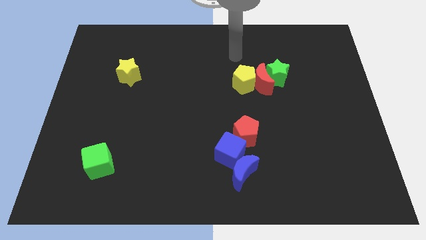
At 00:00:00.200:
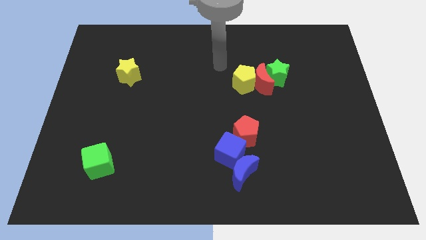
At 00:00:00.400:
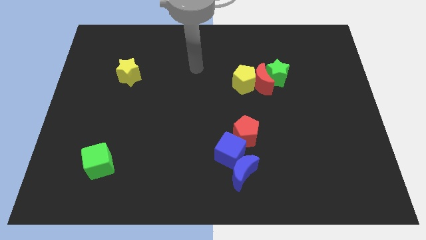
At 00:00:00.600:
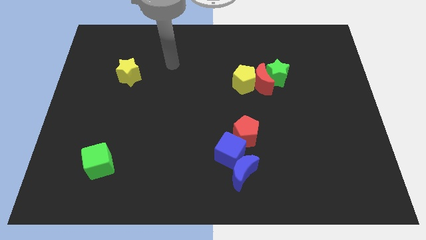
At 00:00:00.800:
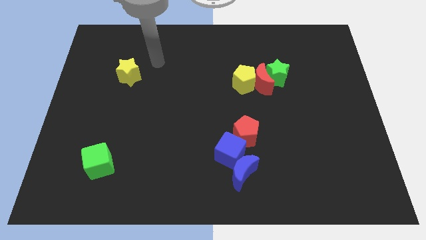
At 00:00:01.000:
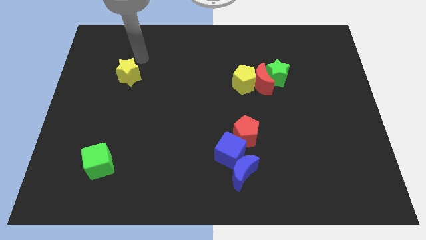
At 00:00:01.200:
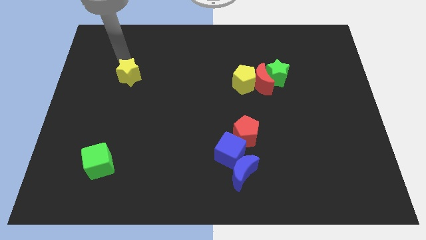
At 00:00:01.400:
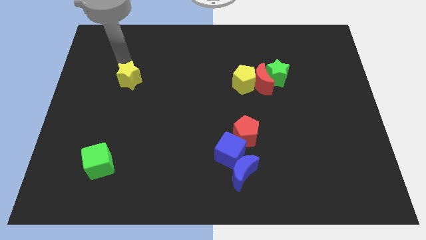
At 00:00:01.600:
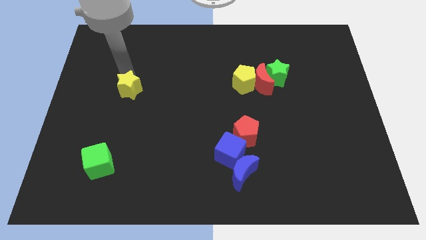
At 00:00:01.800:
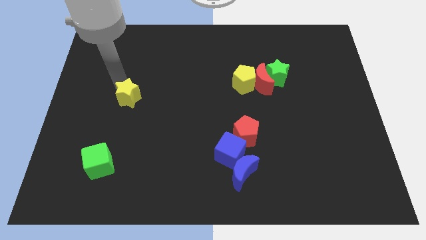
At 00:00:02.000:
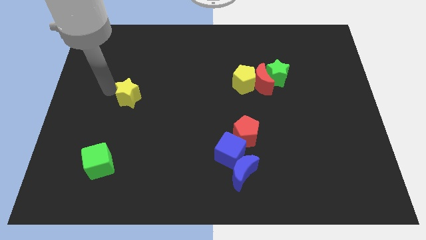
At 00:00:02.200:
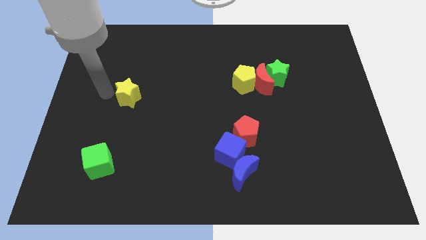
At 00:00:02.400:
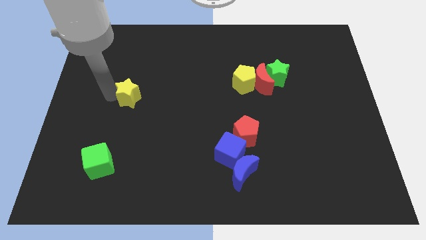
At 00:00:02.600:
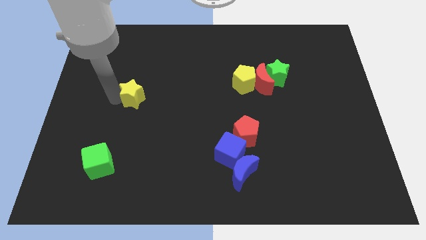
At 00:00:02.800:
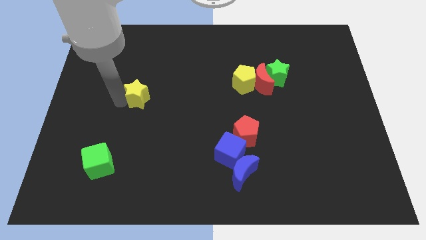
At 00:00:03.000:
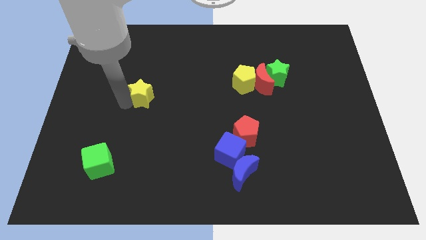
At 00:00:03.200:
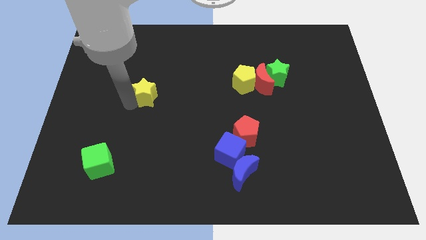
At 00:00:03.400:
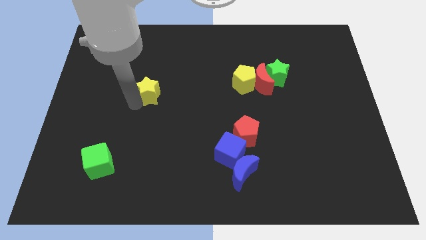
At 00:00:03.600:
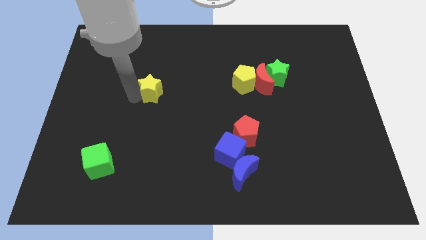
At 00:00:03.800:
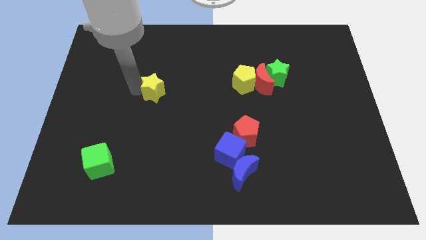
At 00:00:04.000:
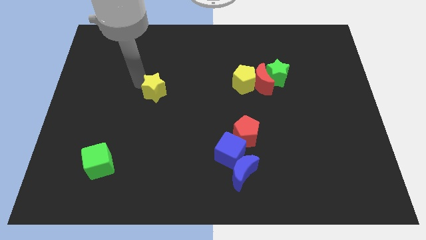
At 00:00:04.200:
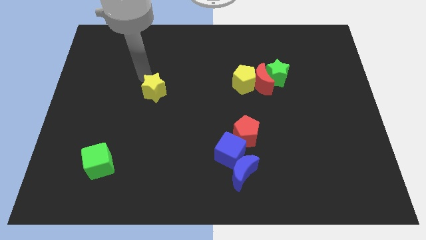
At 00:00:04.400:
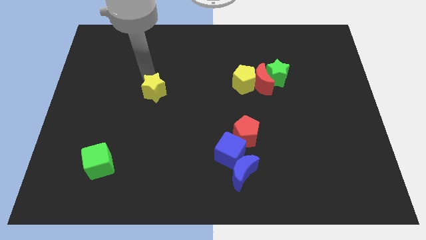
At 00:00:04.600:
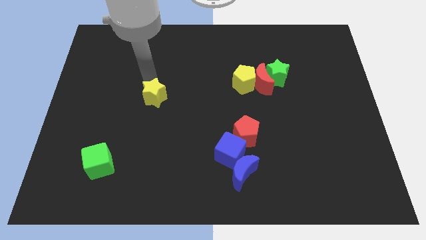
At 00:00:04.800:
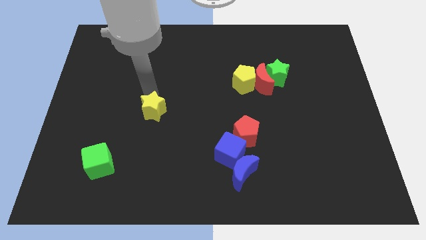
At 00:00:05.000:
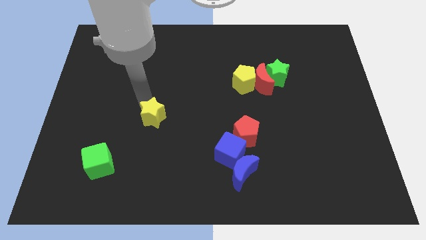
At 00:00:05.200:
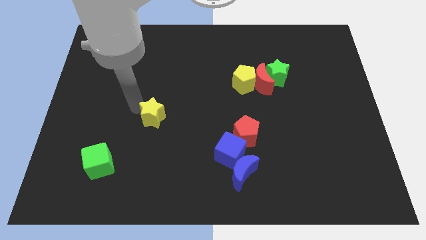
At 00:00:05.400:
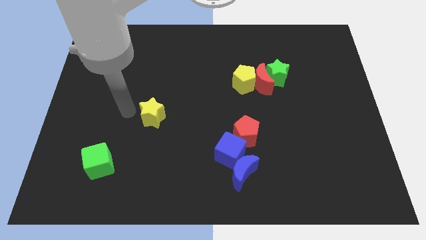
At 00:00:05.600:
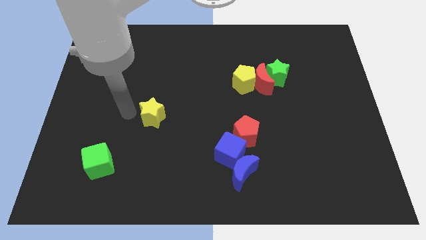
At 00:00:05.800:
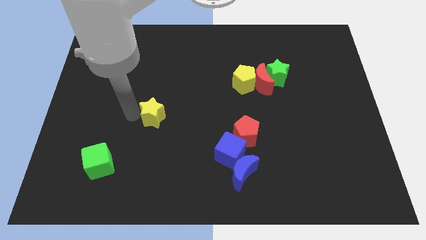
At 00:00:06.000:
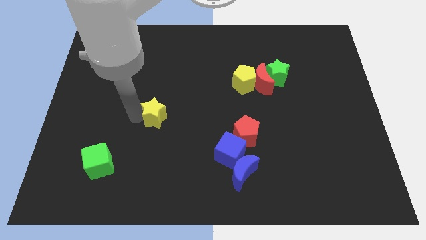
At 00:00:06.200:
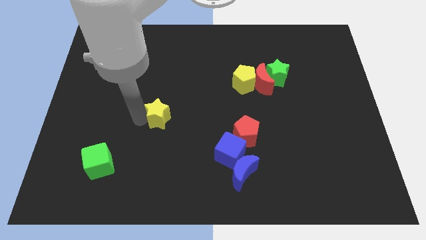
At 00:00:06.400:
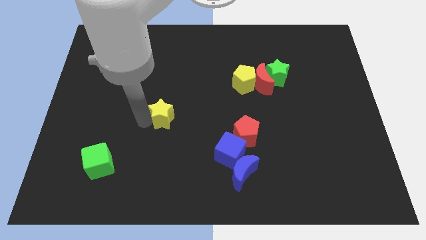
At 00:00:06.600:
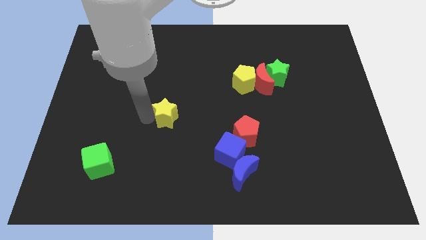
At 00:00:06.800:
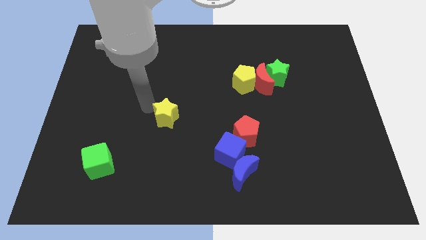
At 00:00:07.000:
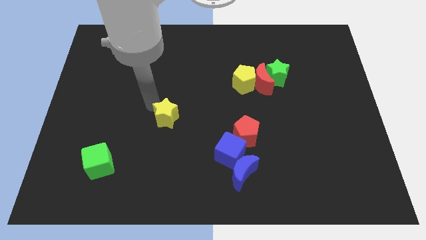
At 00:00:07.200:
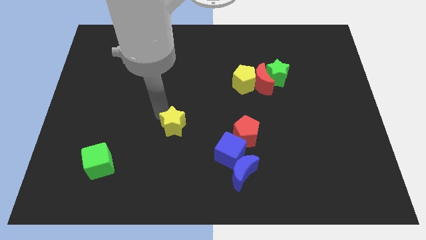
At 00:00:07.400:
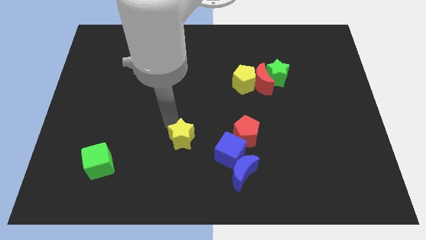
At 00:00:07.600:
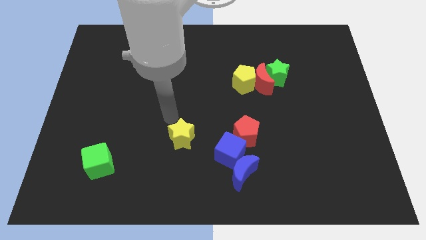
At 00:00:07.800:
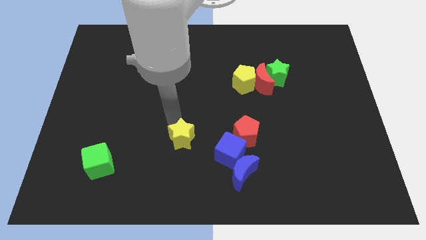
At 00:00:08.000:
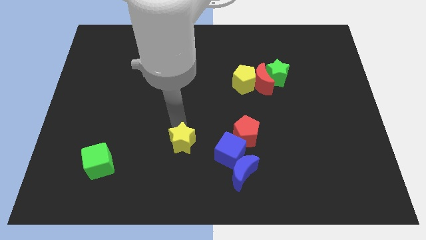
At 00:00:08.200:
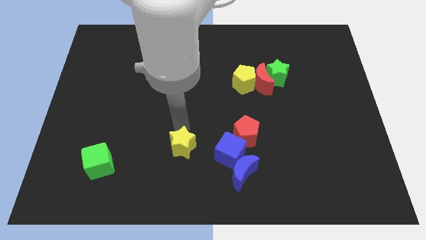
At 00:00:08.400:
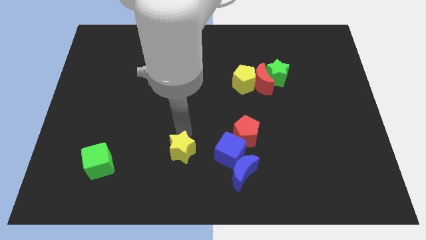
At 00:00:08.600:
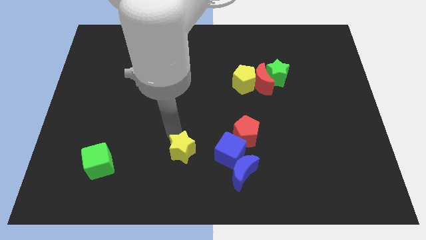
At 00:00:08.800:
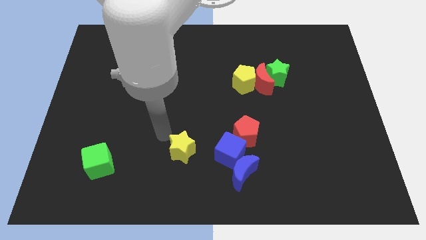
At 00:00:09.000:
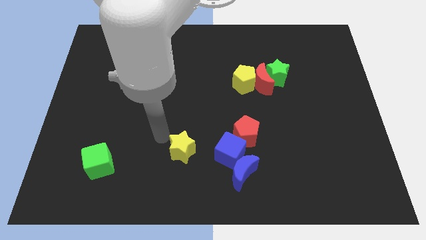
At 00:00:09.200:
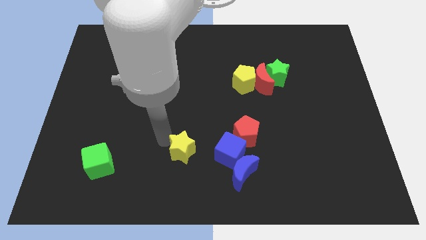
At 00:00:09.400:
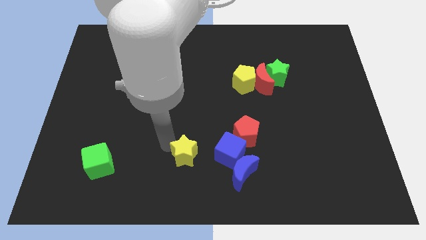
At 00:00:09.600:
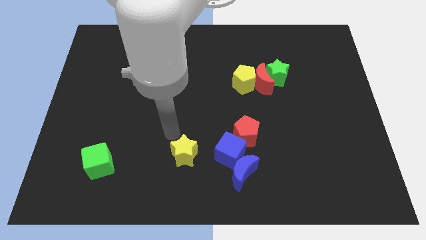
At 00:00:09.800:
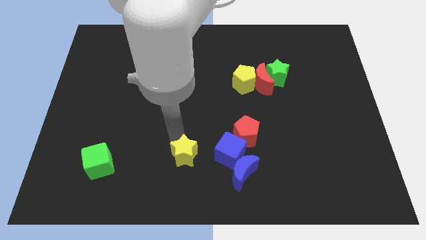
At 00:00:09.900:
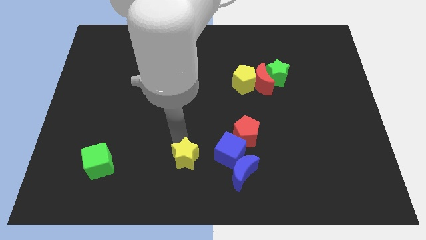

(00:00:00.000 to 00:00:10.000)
move the yellow star to the bottom

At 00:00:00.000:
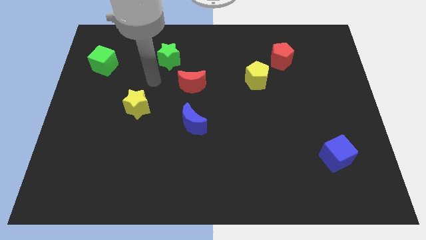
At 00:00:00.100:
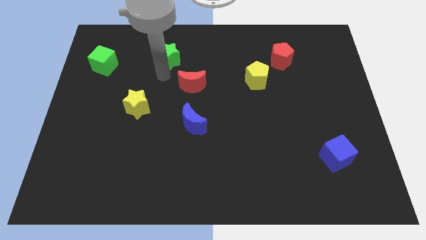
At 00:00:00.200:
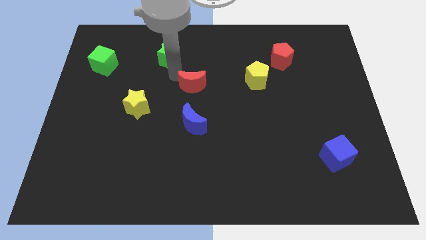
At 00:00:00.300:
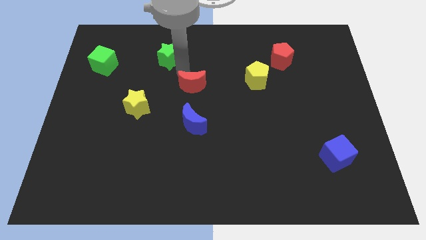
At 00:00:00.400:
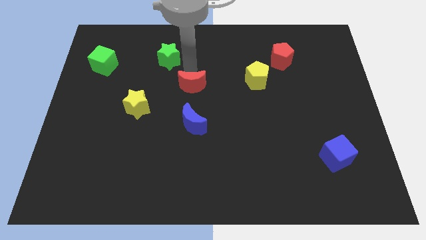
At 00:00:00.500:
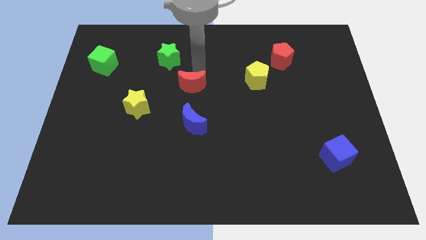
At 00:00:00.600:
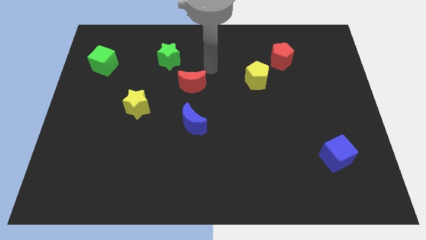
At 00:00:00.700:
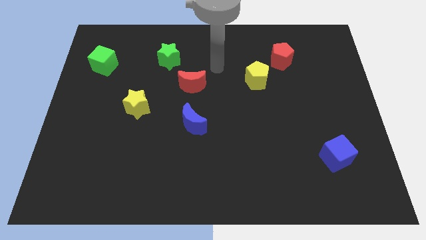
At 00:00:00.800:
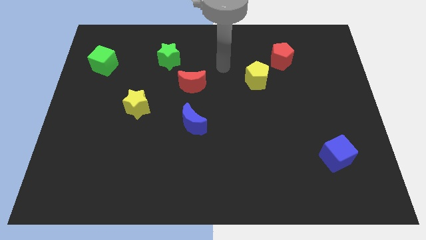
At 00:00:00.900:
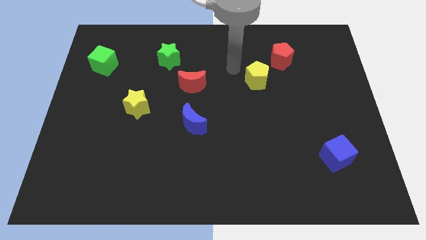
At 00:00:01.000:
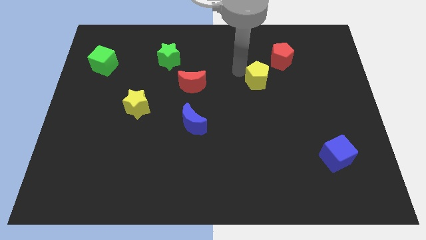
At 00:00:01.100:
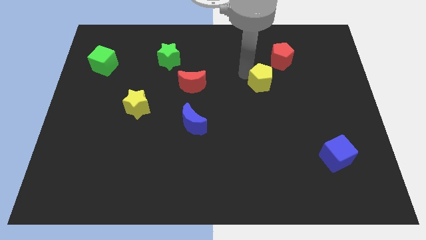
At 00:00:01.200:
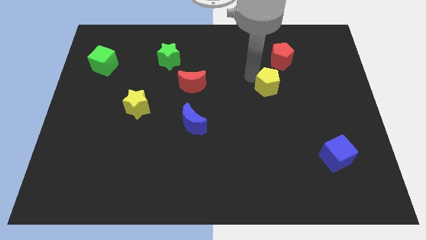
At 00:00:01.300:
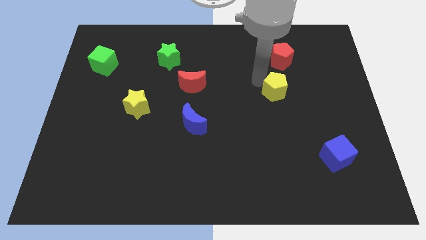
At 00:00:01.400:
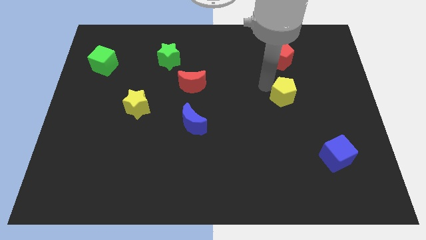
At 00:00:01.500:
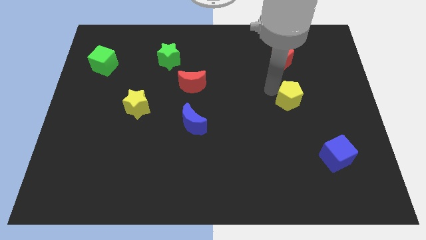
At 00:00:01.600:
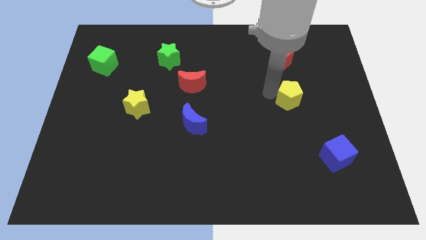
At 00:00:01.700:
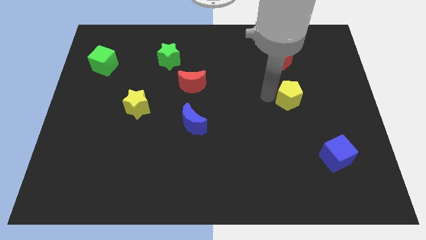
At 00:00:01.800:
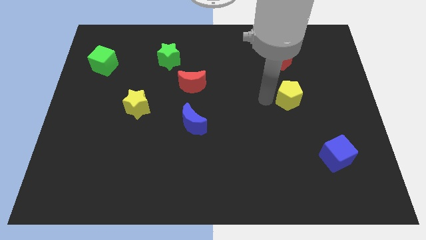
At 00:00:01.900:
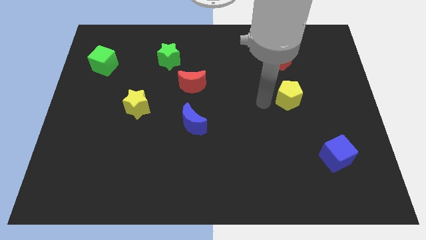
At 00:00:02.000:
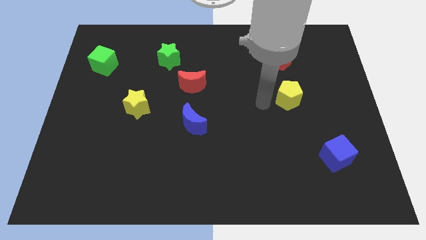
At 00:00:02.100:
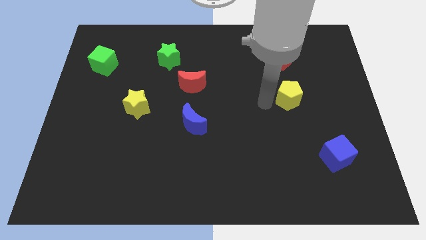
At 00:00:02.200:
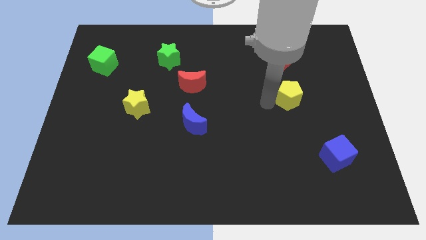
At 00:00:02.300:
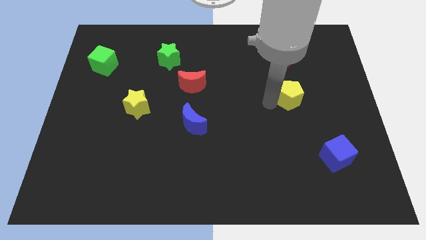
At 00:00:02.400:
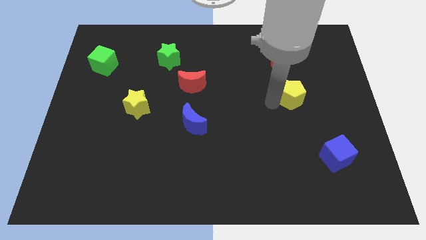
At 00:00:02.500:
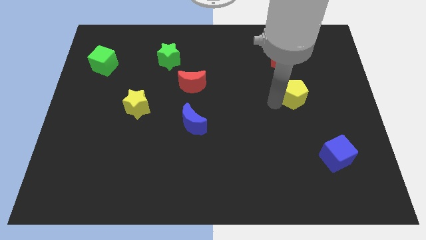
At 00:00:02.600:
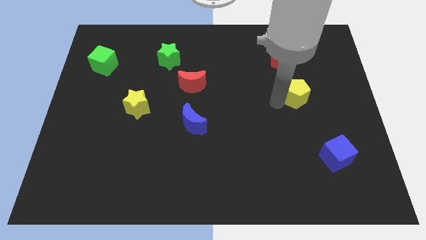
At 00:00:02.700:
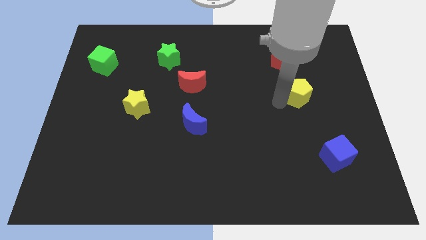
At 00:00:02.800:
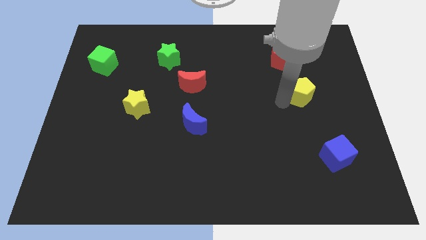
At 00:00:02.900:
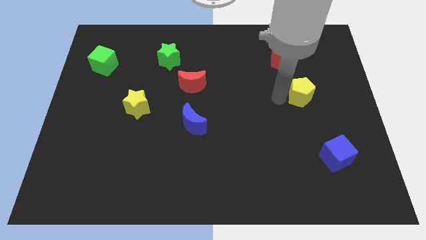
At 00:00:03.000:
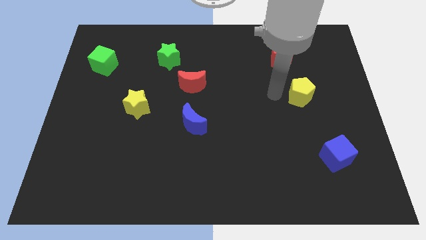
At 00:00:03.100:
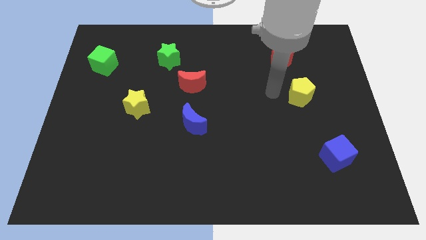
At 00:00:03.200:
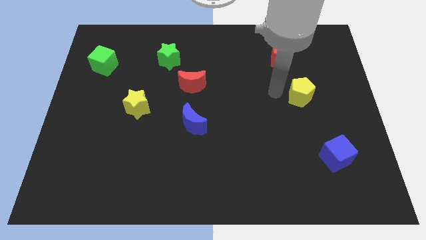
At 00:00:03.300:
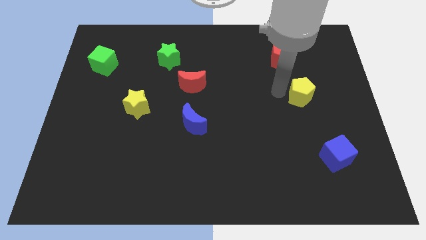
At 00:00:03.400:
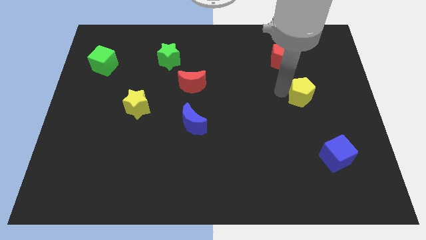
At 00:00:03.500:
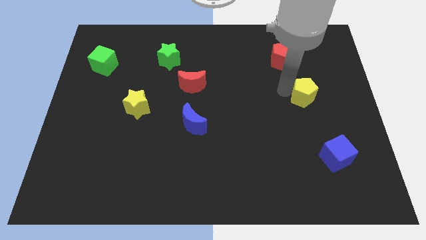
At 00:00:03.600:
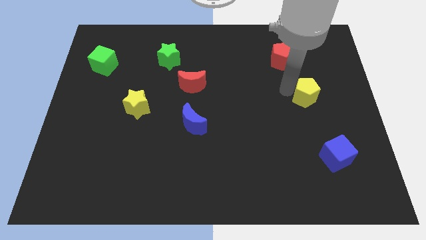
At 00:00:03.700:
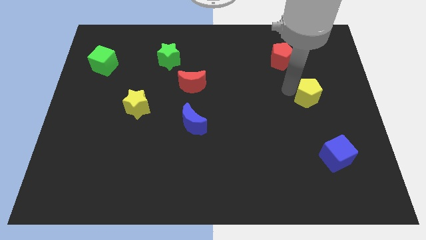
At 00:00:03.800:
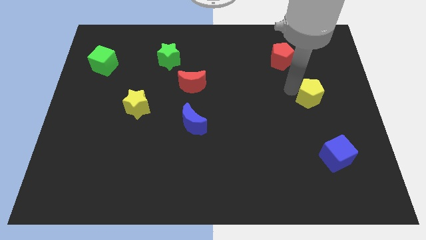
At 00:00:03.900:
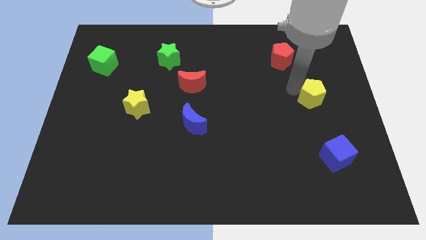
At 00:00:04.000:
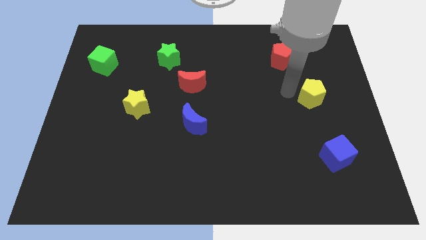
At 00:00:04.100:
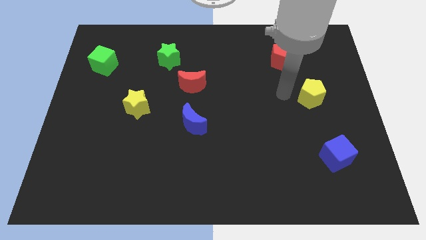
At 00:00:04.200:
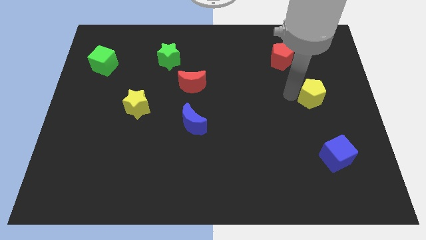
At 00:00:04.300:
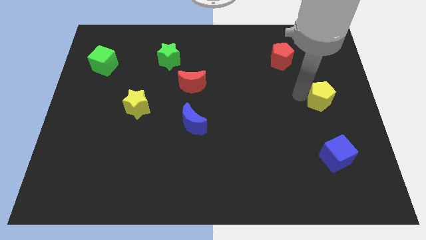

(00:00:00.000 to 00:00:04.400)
push the yellow pentagon to the right side
